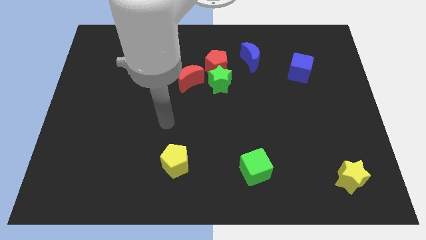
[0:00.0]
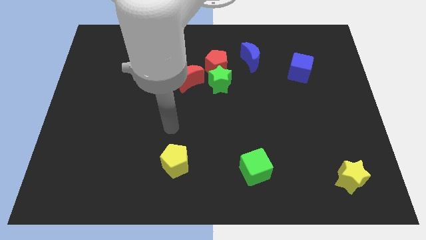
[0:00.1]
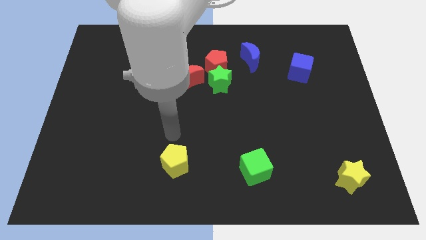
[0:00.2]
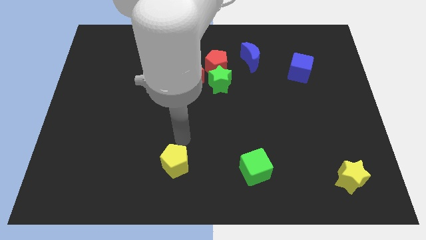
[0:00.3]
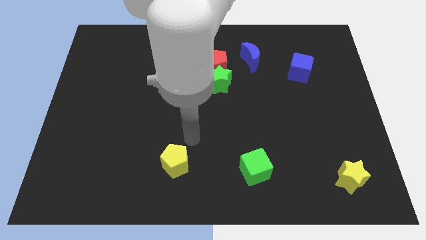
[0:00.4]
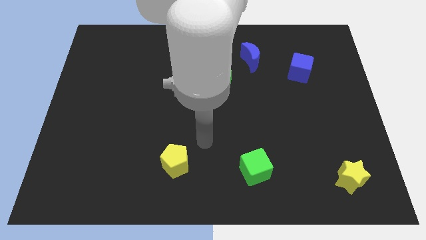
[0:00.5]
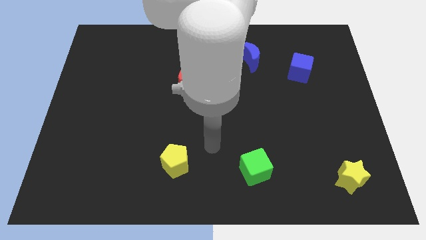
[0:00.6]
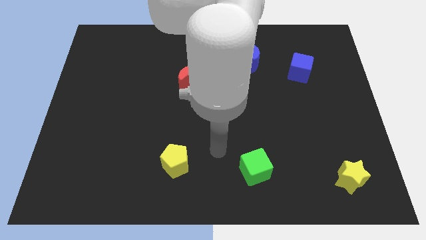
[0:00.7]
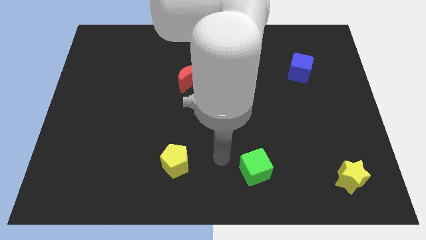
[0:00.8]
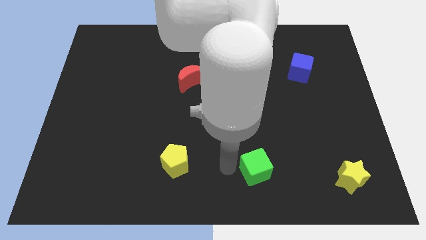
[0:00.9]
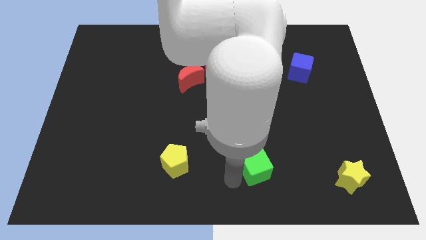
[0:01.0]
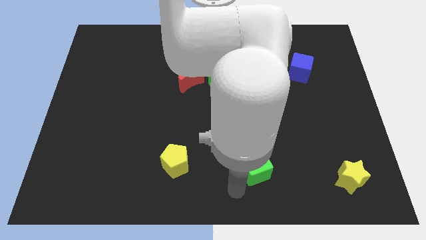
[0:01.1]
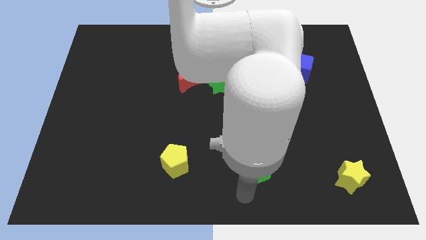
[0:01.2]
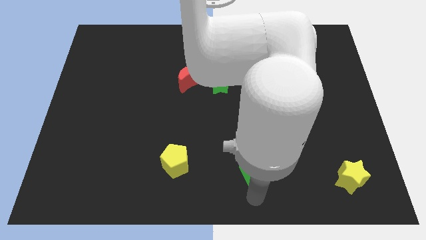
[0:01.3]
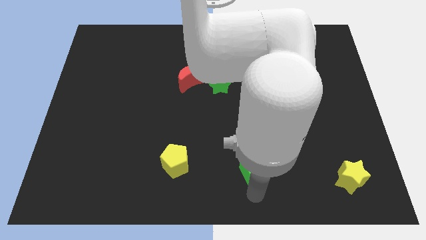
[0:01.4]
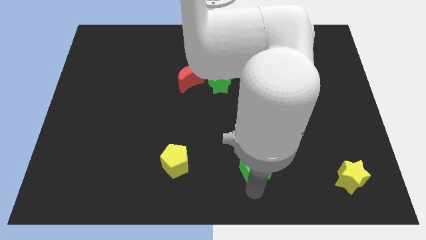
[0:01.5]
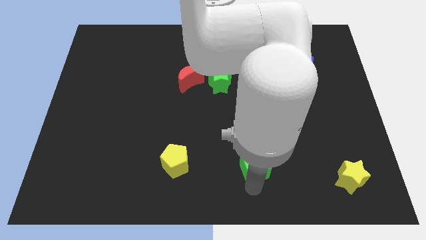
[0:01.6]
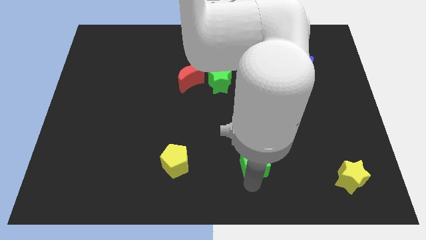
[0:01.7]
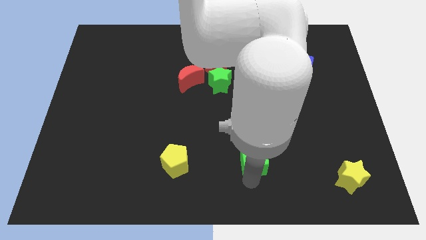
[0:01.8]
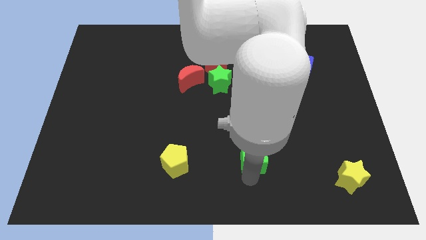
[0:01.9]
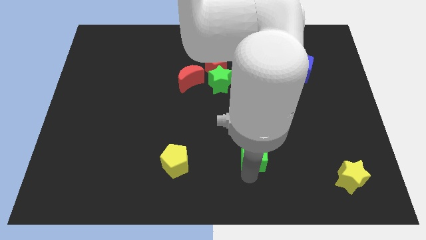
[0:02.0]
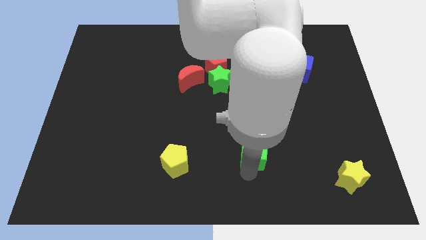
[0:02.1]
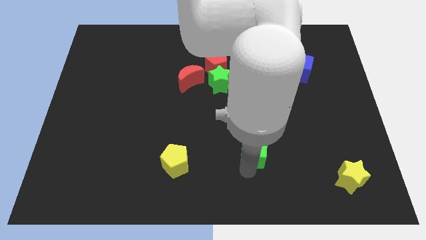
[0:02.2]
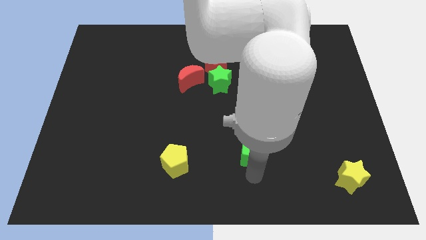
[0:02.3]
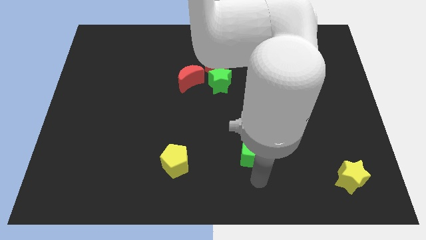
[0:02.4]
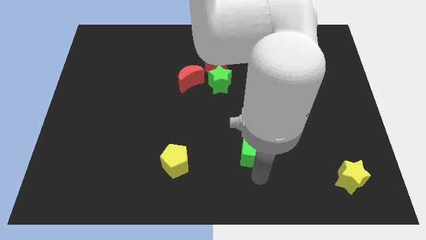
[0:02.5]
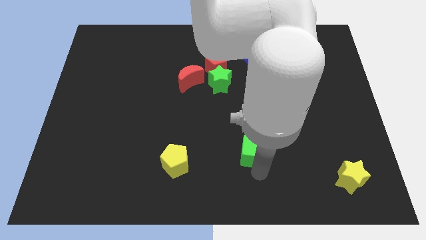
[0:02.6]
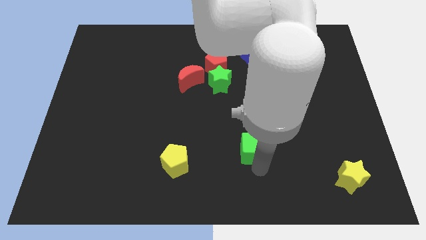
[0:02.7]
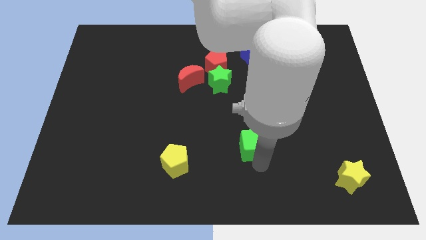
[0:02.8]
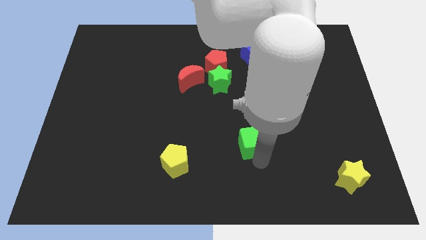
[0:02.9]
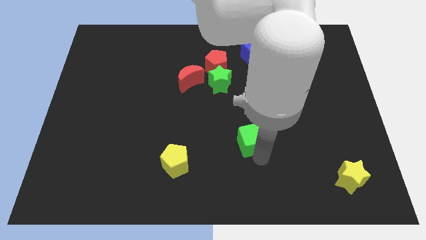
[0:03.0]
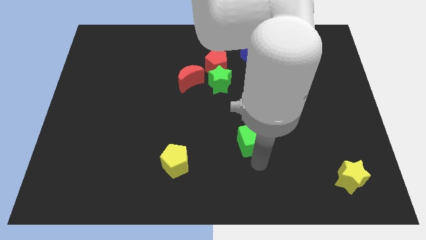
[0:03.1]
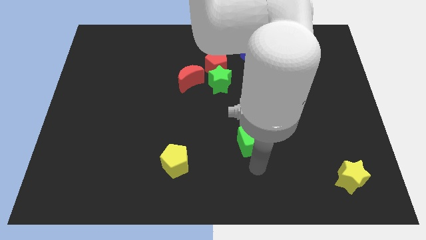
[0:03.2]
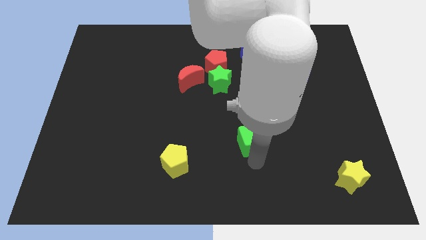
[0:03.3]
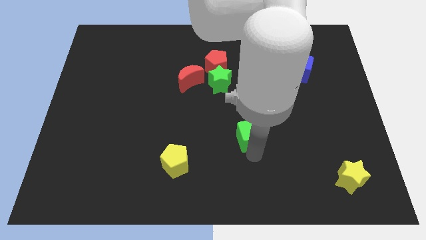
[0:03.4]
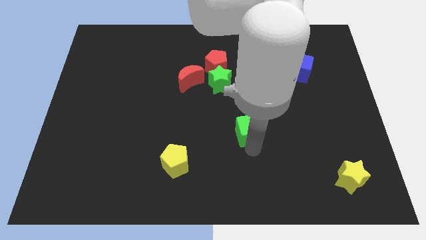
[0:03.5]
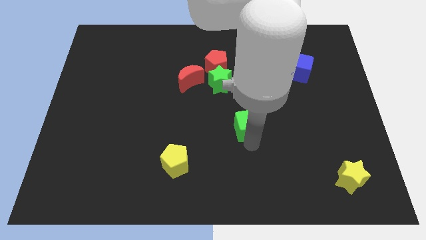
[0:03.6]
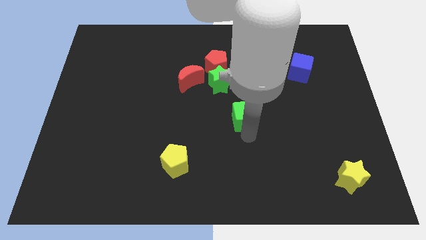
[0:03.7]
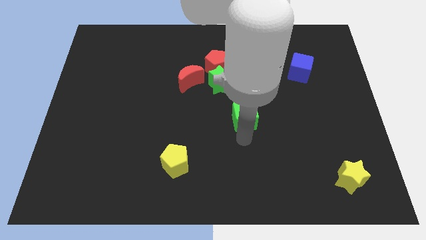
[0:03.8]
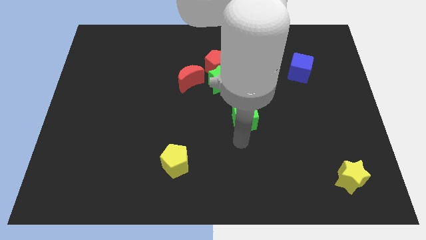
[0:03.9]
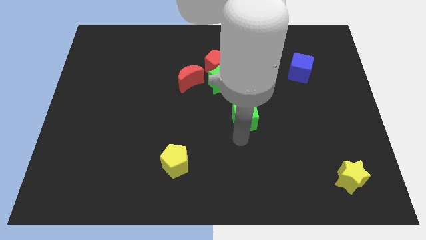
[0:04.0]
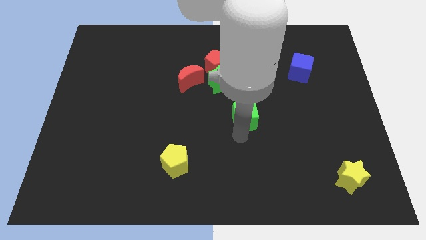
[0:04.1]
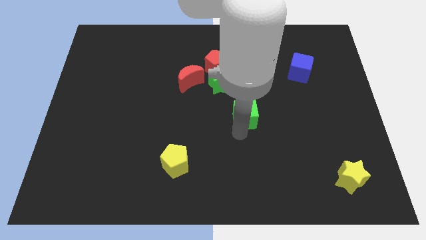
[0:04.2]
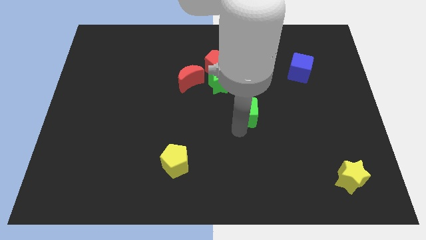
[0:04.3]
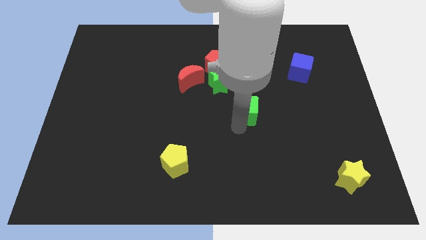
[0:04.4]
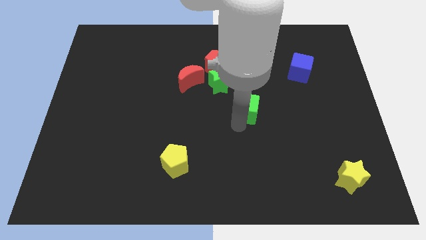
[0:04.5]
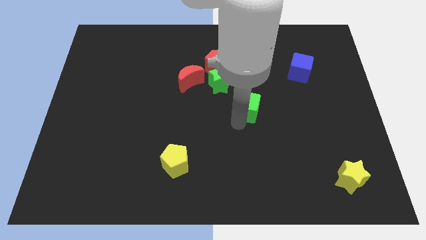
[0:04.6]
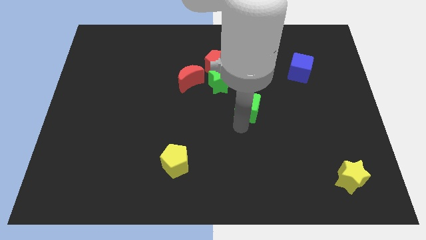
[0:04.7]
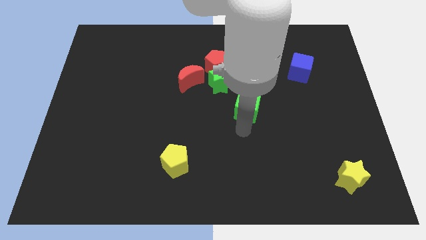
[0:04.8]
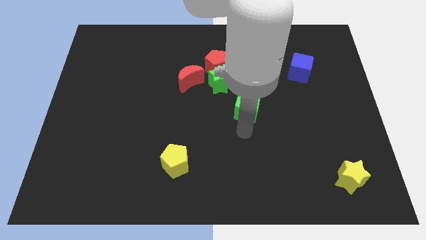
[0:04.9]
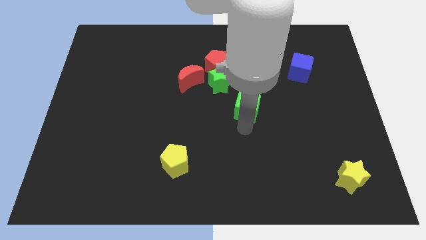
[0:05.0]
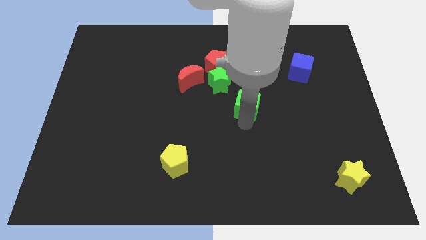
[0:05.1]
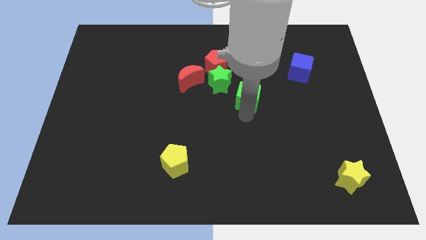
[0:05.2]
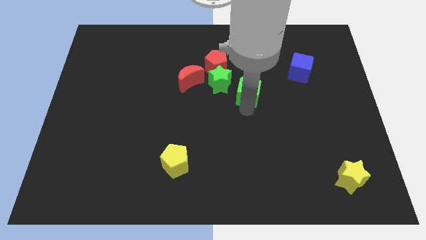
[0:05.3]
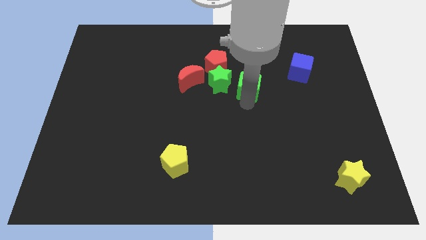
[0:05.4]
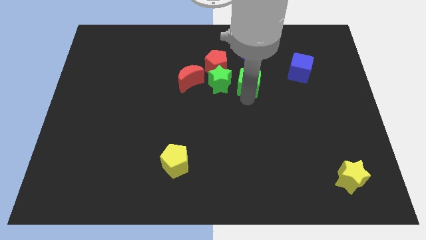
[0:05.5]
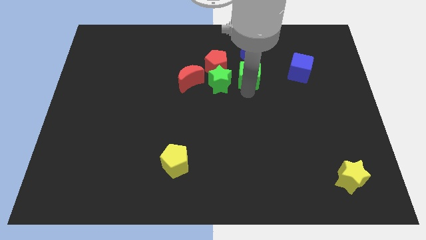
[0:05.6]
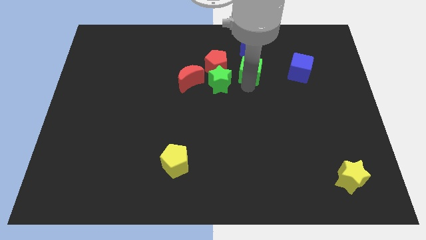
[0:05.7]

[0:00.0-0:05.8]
put the green cube towards the blue moon
